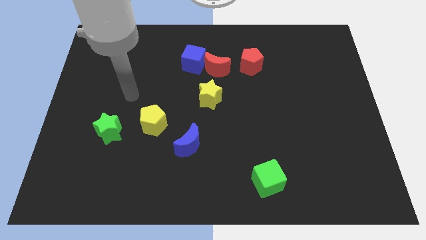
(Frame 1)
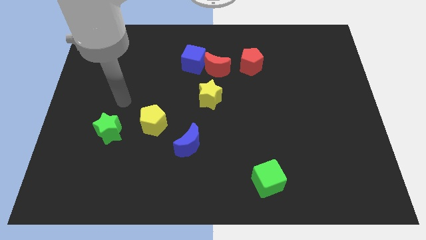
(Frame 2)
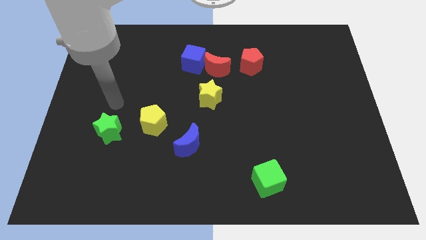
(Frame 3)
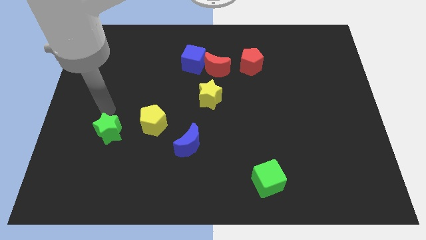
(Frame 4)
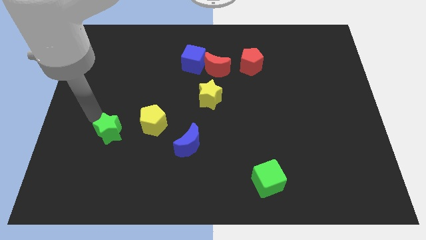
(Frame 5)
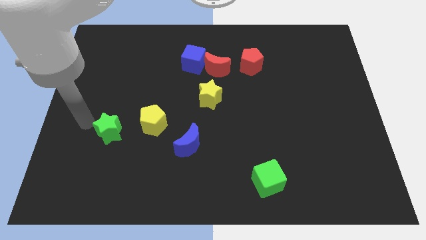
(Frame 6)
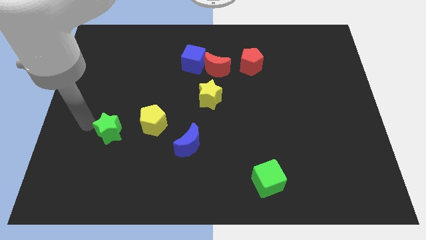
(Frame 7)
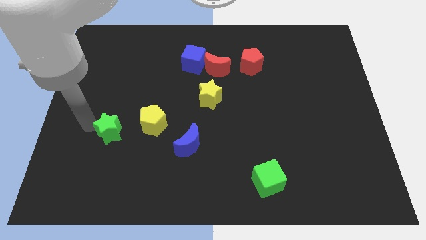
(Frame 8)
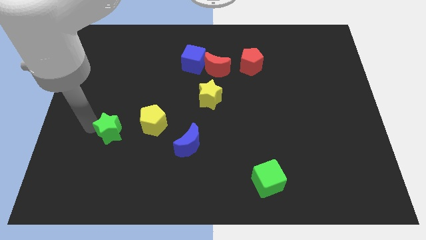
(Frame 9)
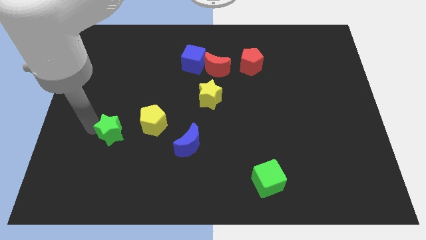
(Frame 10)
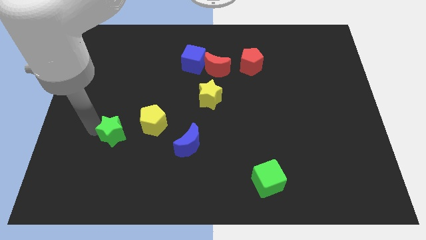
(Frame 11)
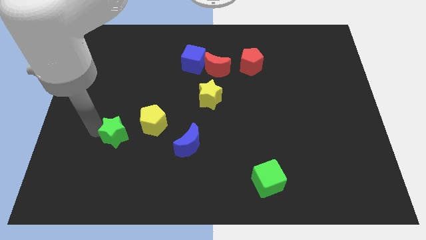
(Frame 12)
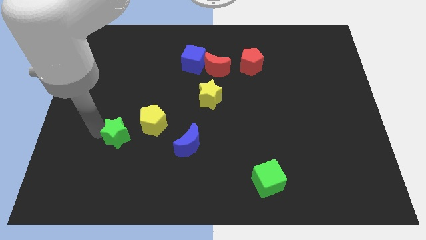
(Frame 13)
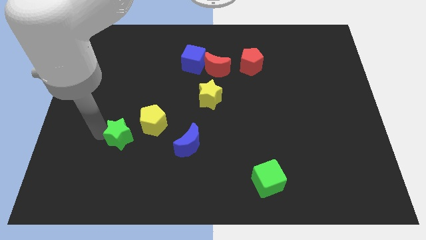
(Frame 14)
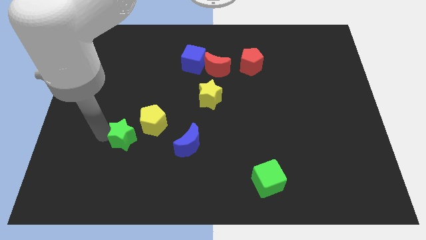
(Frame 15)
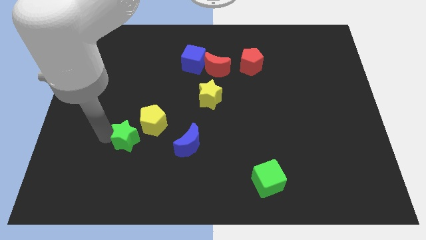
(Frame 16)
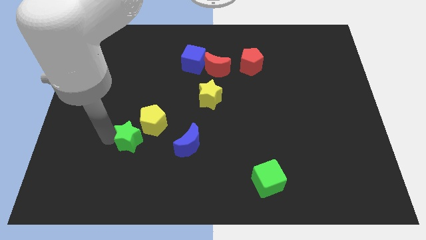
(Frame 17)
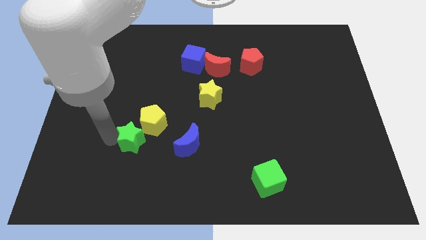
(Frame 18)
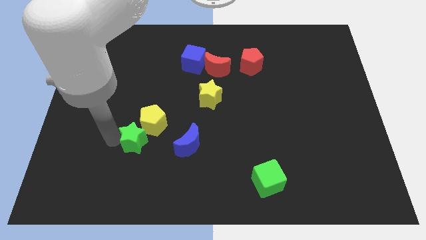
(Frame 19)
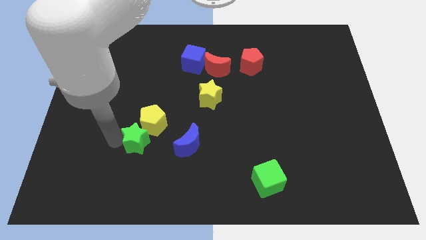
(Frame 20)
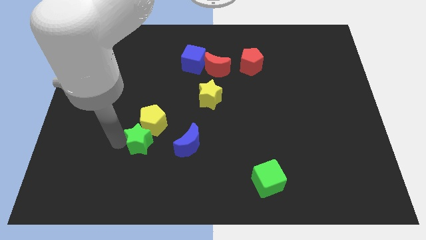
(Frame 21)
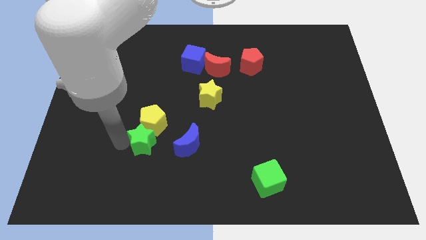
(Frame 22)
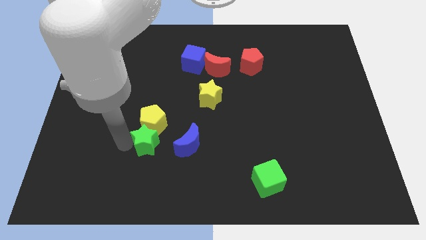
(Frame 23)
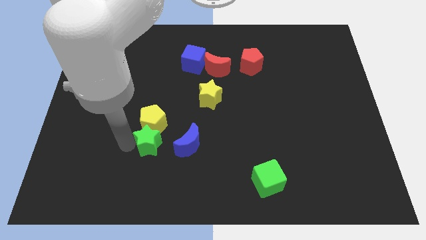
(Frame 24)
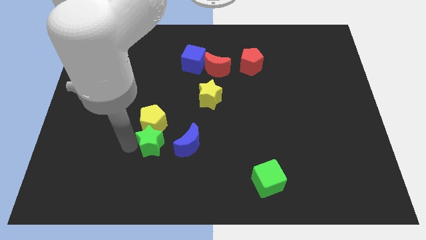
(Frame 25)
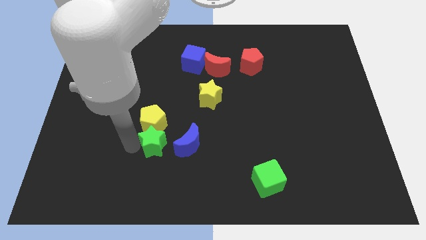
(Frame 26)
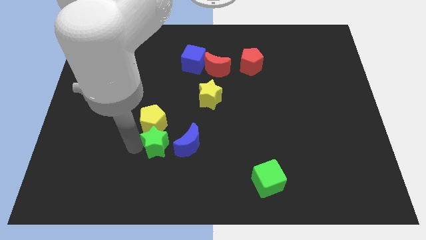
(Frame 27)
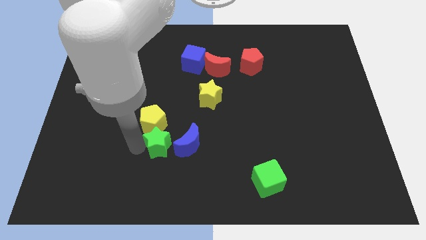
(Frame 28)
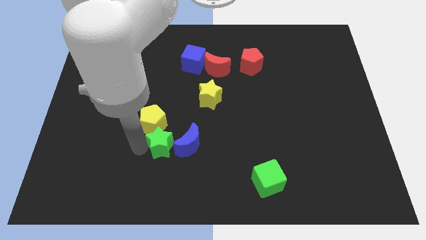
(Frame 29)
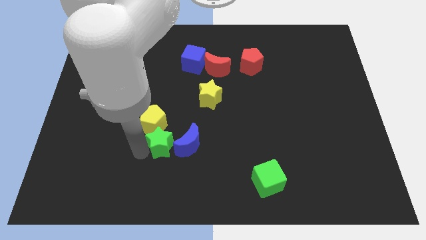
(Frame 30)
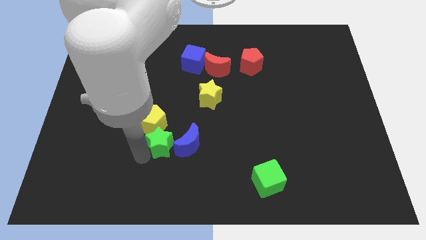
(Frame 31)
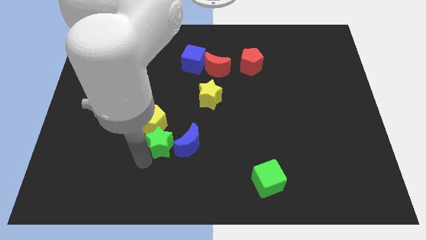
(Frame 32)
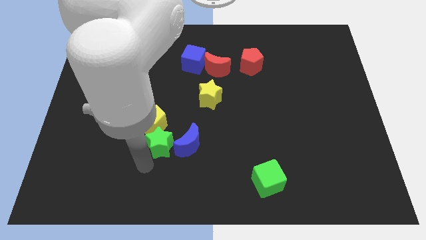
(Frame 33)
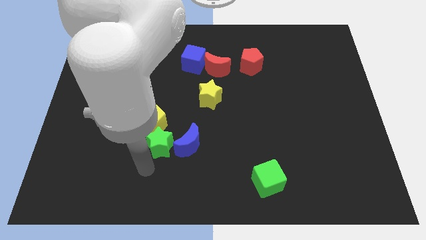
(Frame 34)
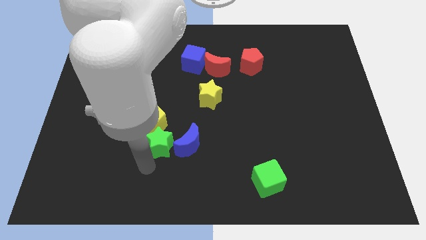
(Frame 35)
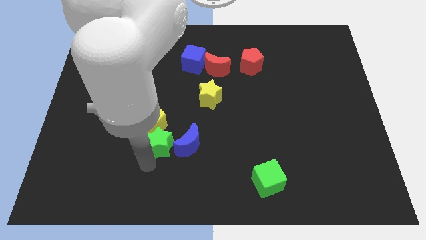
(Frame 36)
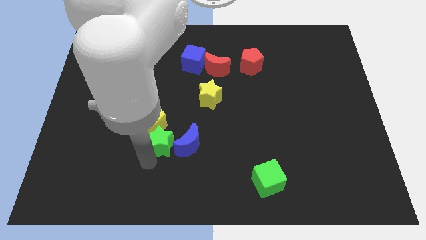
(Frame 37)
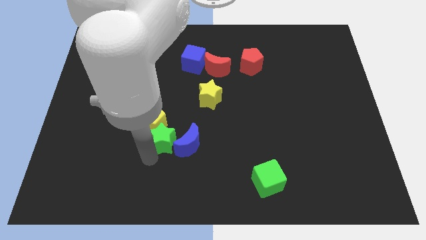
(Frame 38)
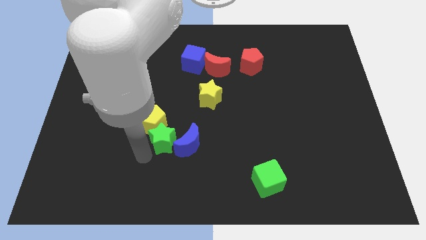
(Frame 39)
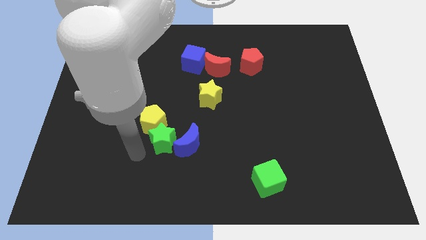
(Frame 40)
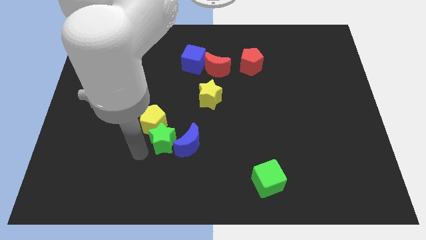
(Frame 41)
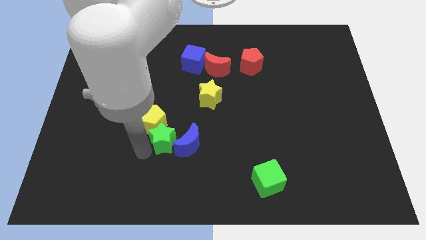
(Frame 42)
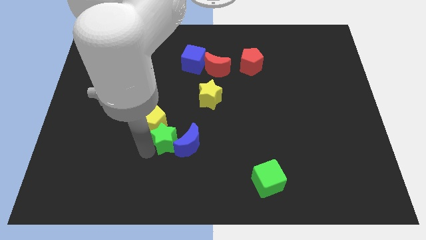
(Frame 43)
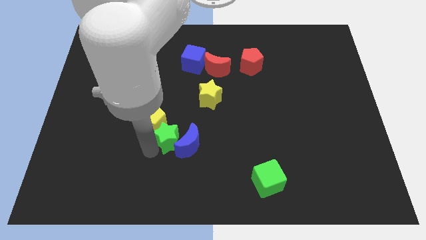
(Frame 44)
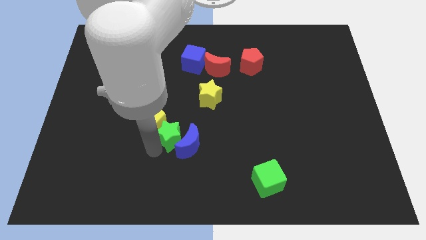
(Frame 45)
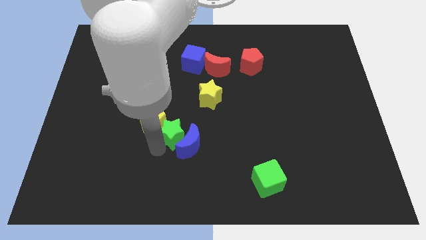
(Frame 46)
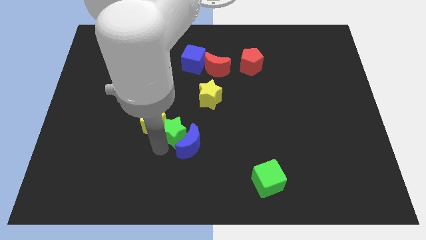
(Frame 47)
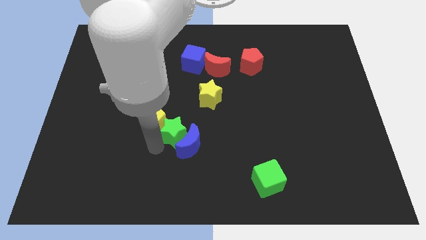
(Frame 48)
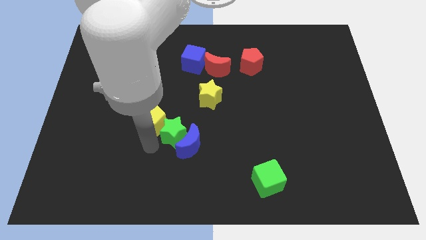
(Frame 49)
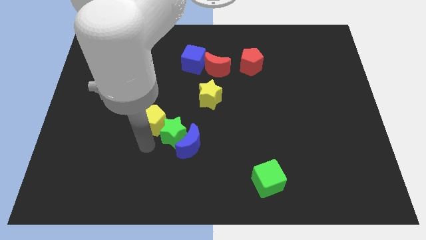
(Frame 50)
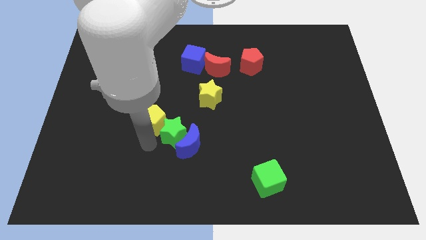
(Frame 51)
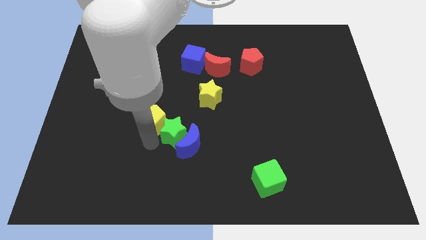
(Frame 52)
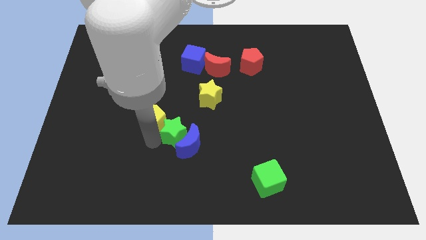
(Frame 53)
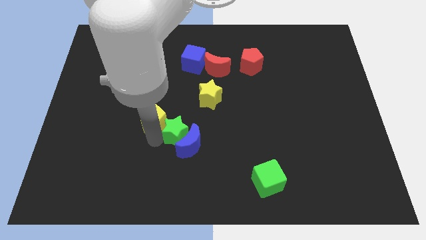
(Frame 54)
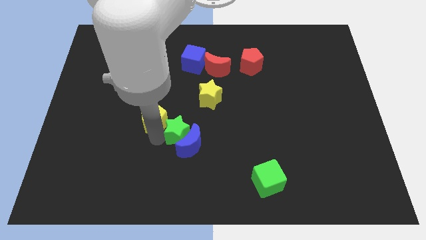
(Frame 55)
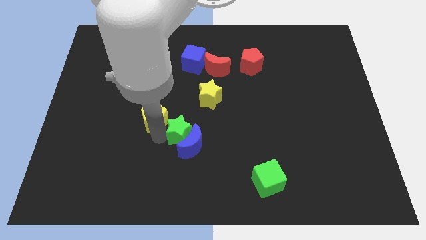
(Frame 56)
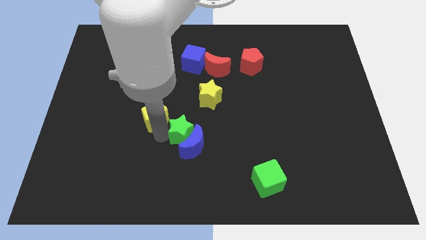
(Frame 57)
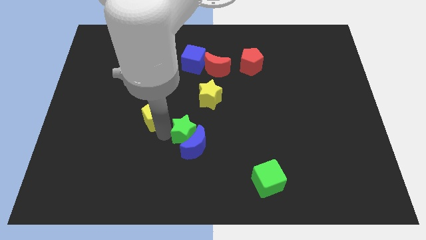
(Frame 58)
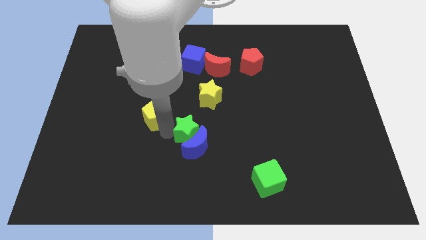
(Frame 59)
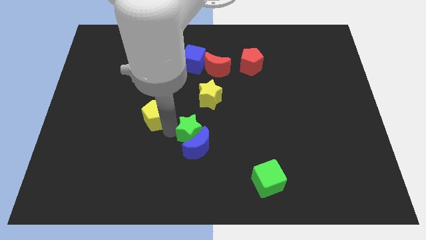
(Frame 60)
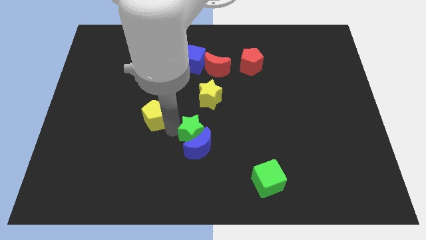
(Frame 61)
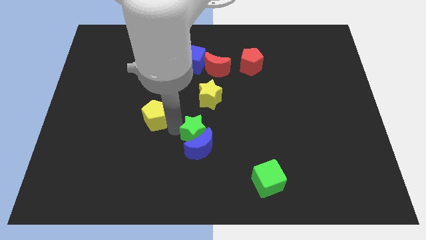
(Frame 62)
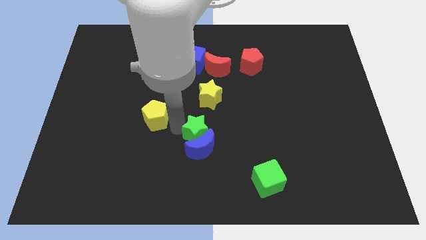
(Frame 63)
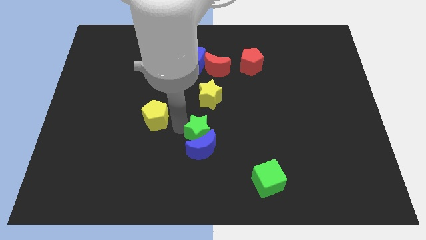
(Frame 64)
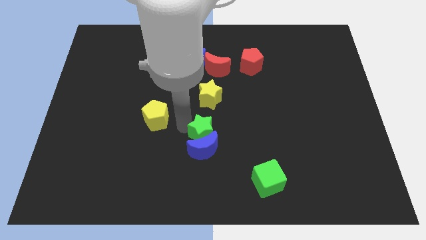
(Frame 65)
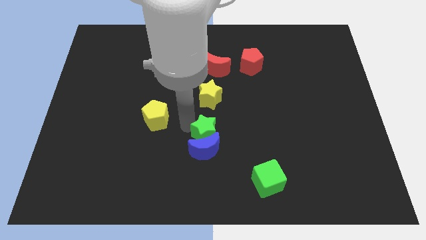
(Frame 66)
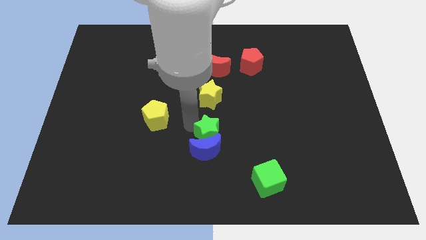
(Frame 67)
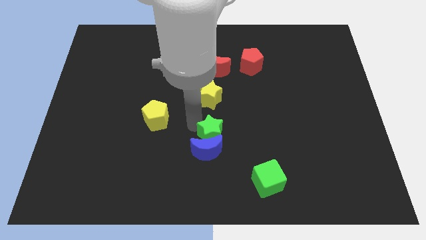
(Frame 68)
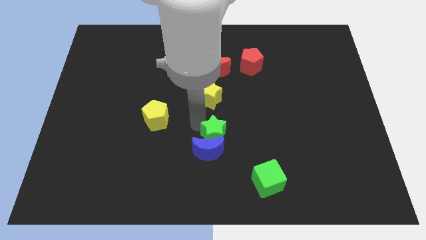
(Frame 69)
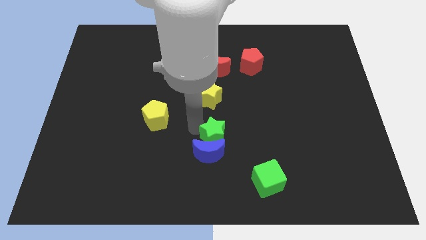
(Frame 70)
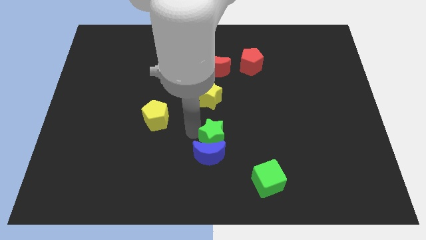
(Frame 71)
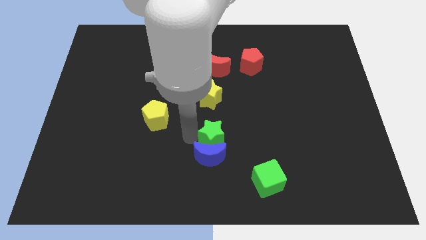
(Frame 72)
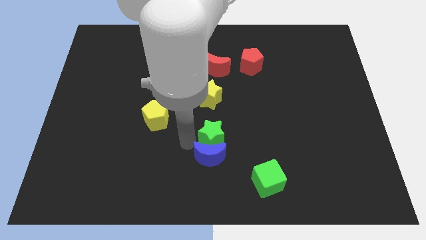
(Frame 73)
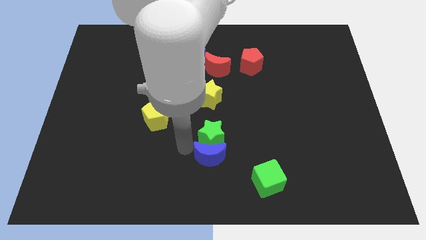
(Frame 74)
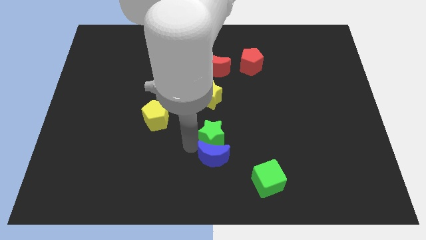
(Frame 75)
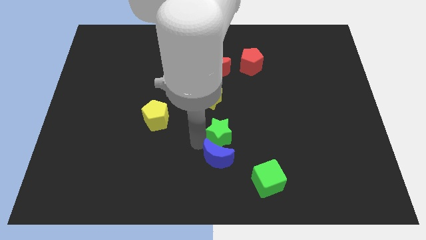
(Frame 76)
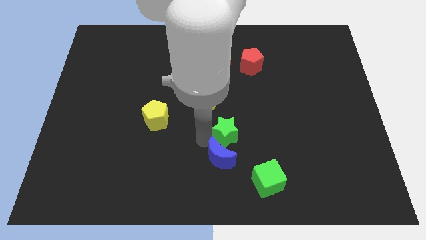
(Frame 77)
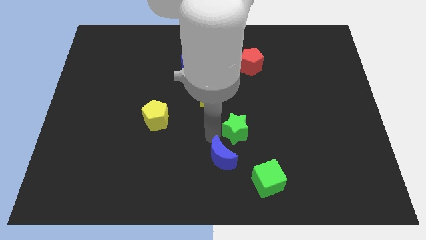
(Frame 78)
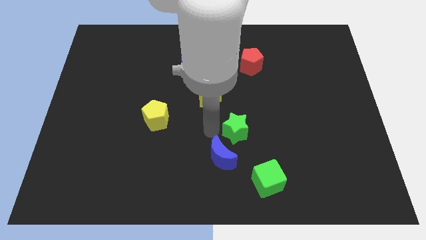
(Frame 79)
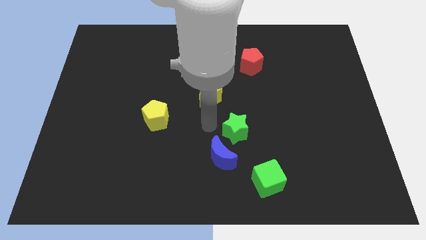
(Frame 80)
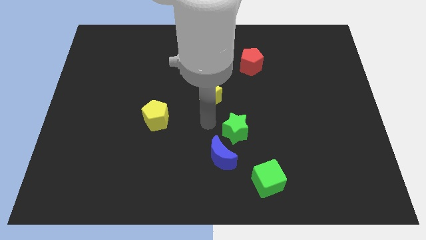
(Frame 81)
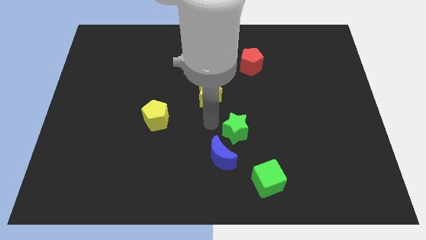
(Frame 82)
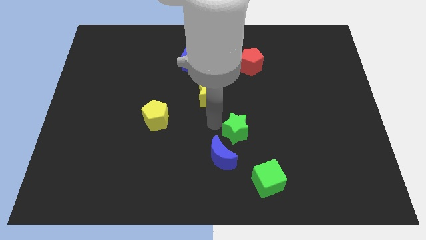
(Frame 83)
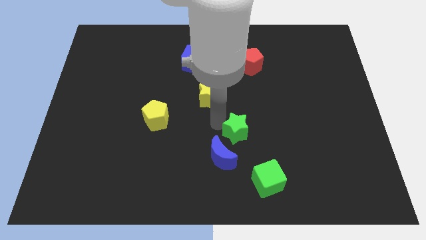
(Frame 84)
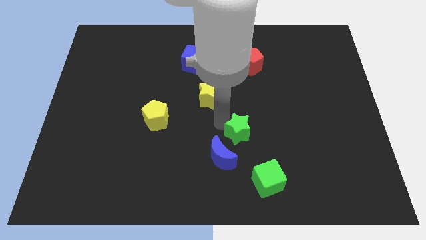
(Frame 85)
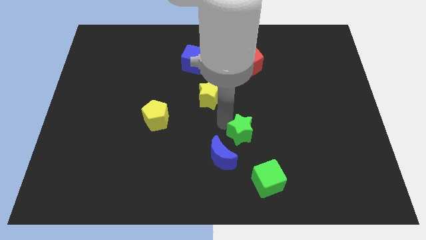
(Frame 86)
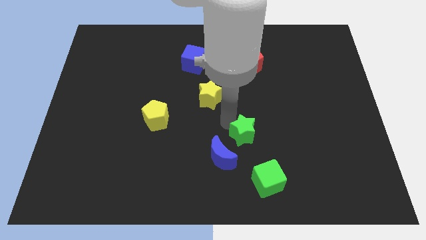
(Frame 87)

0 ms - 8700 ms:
slide the green star to the top of the green cube
